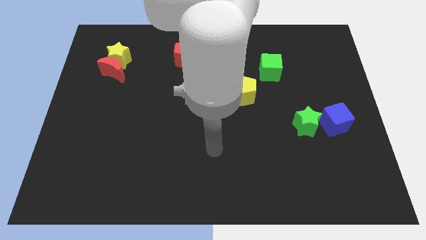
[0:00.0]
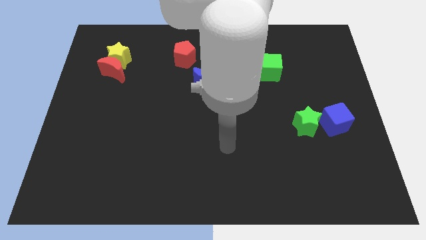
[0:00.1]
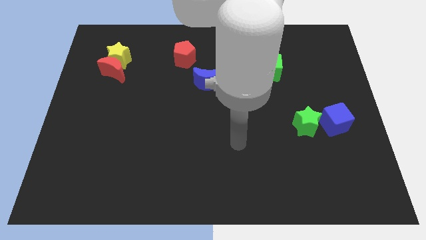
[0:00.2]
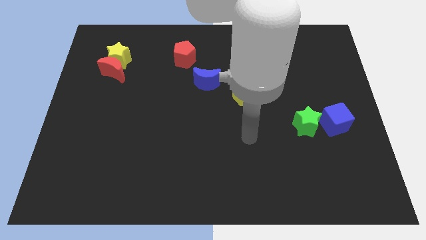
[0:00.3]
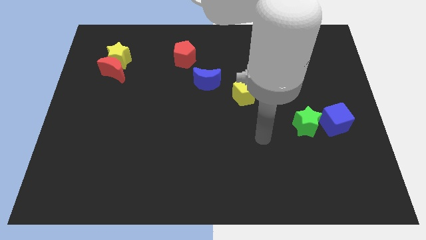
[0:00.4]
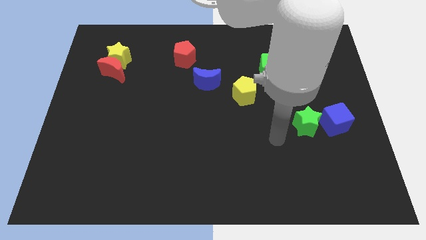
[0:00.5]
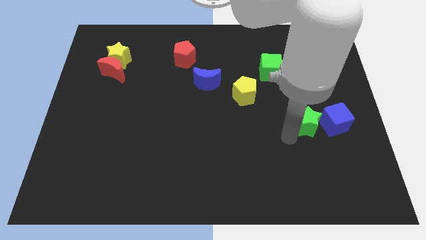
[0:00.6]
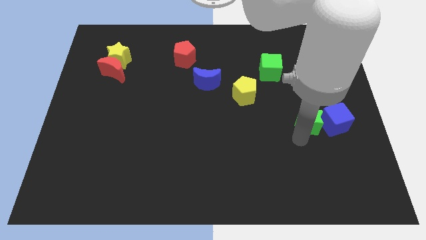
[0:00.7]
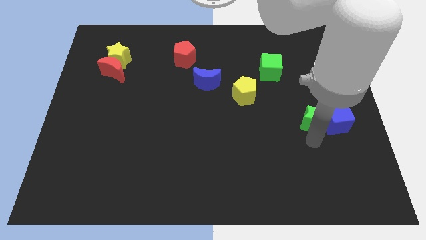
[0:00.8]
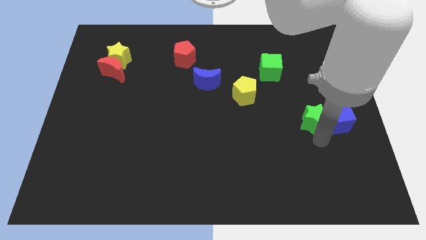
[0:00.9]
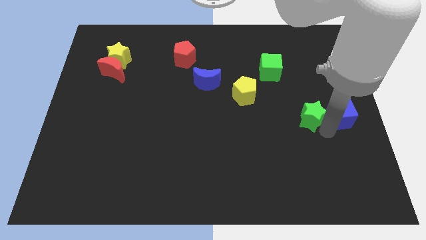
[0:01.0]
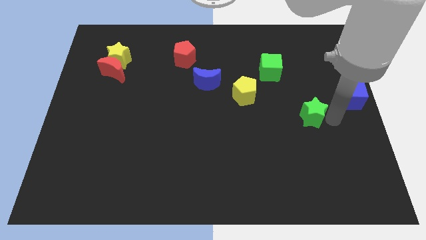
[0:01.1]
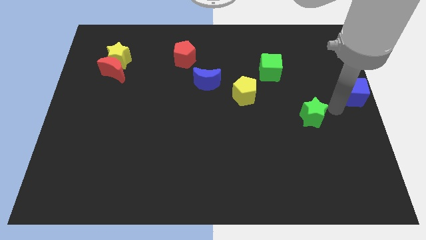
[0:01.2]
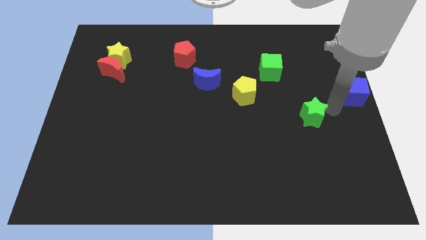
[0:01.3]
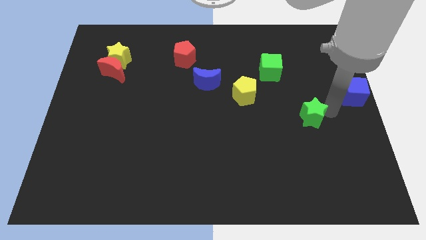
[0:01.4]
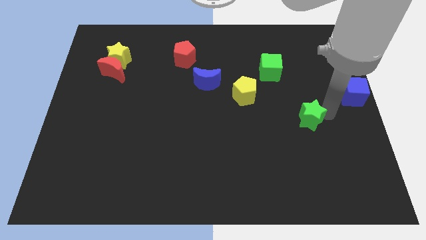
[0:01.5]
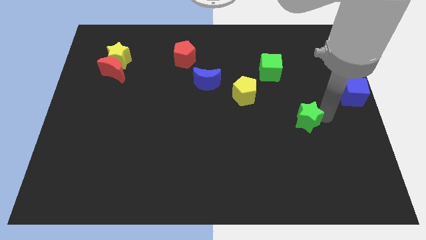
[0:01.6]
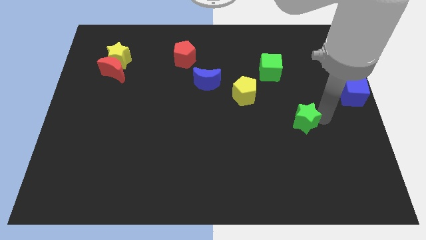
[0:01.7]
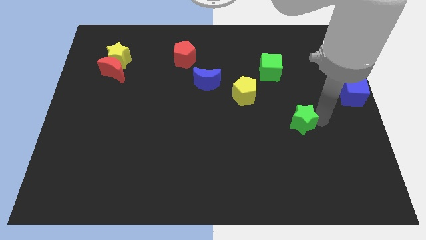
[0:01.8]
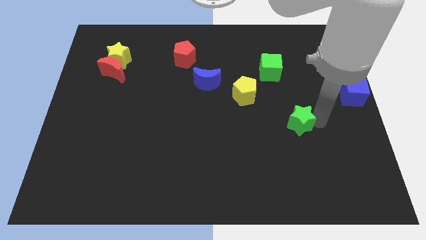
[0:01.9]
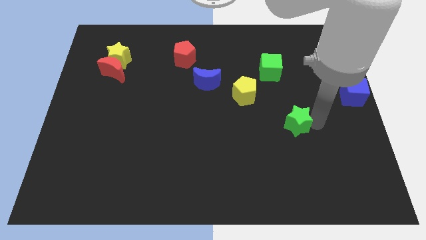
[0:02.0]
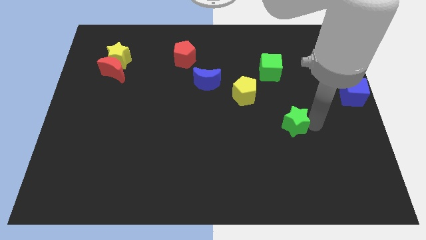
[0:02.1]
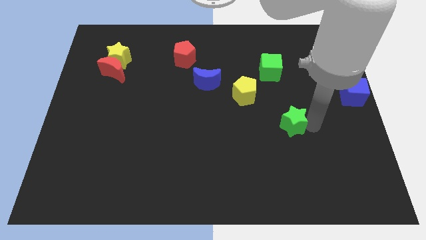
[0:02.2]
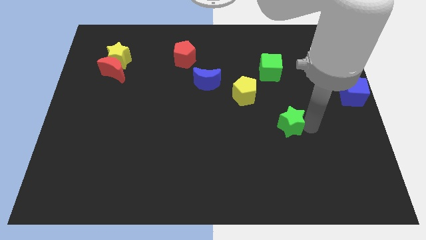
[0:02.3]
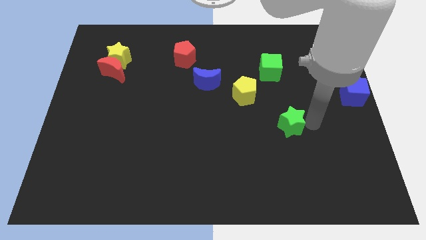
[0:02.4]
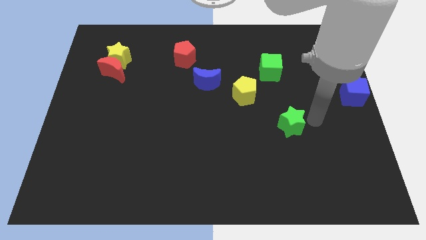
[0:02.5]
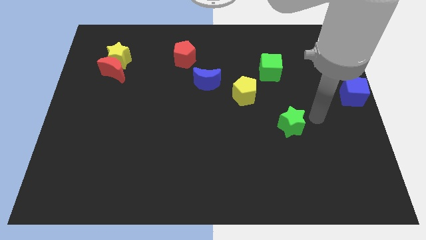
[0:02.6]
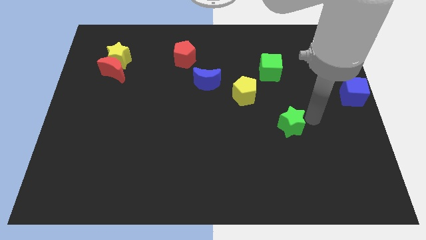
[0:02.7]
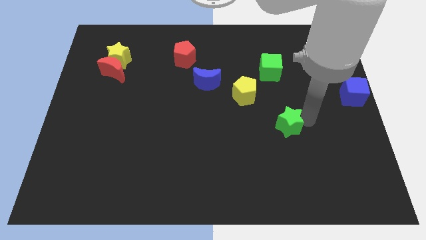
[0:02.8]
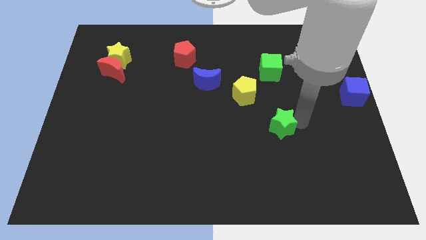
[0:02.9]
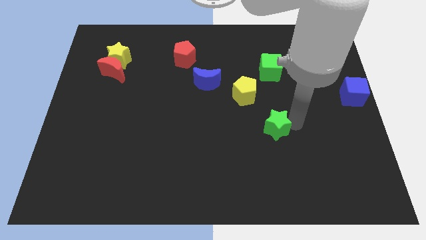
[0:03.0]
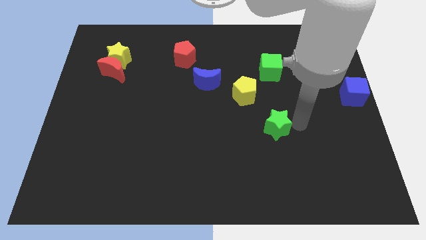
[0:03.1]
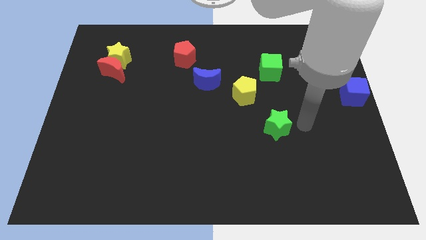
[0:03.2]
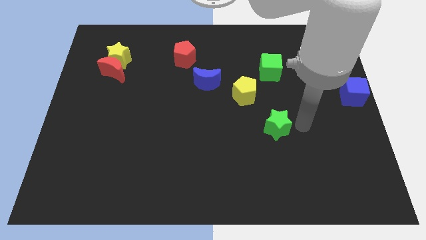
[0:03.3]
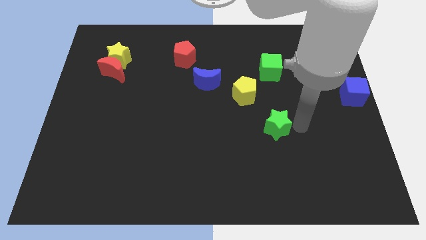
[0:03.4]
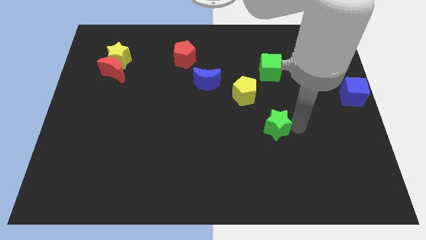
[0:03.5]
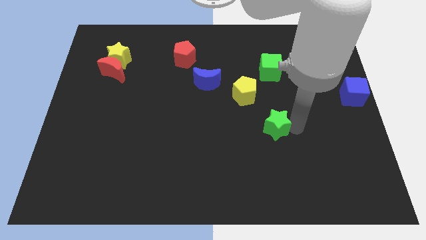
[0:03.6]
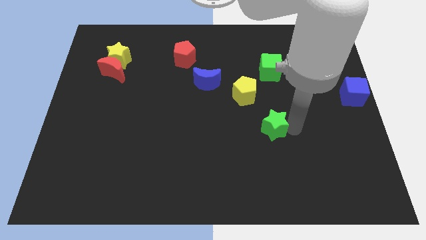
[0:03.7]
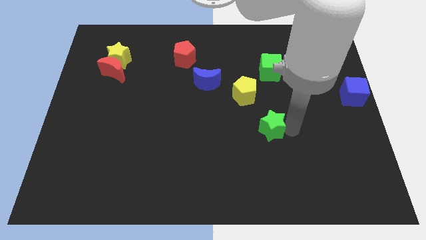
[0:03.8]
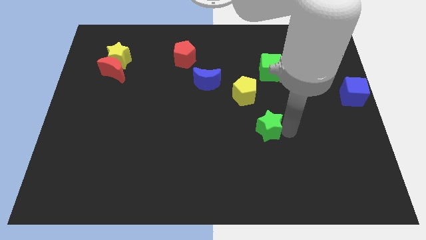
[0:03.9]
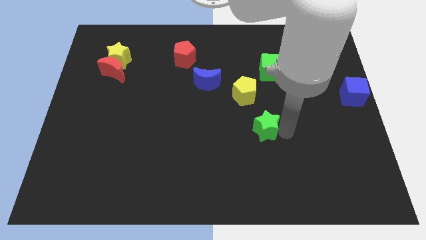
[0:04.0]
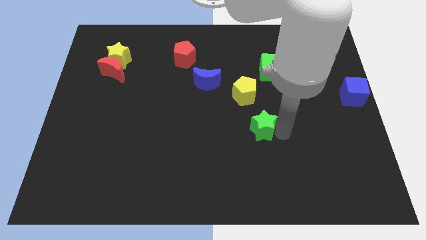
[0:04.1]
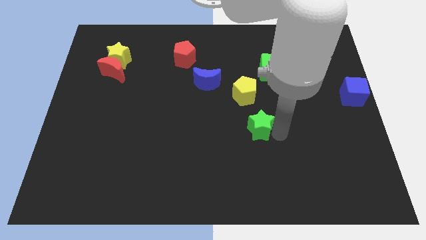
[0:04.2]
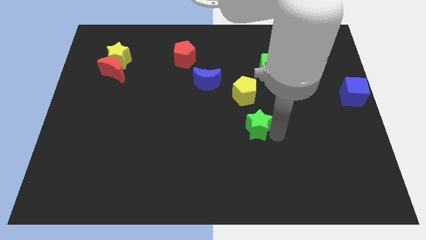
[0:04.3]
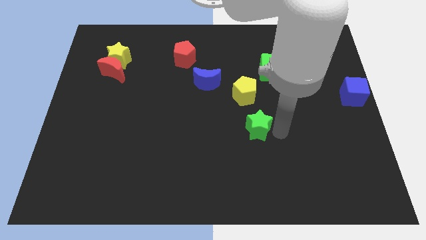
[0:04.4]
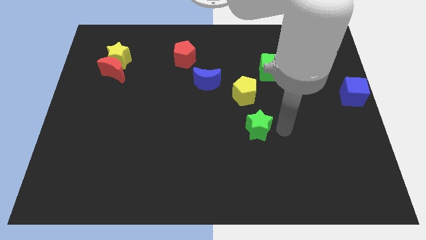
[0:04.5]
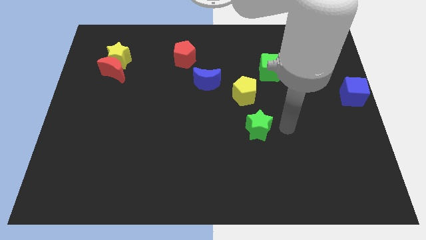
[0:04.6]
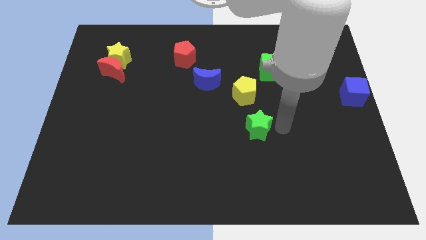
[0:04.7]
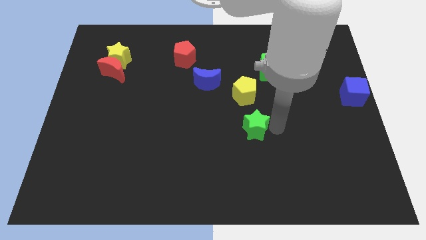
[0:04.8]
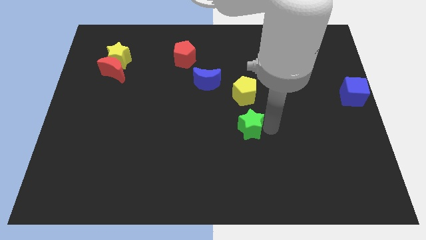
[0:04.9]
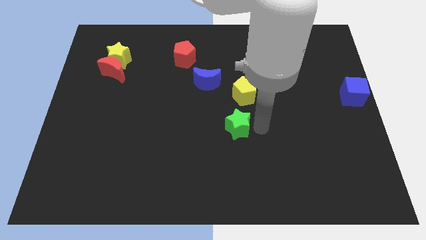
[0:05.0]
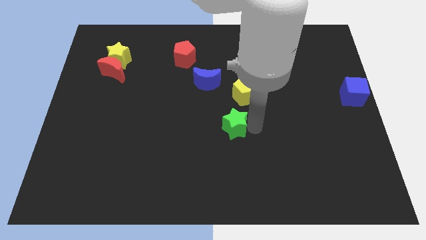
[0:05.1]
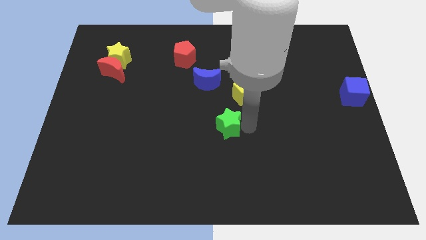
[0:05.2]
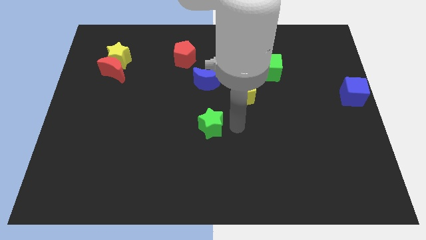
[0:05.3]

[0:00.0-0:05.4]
move the green star left

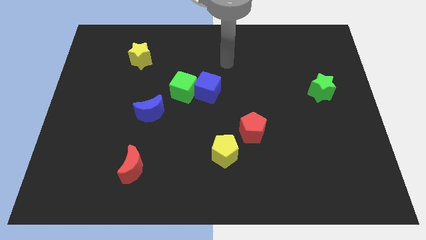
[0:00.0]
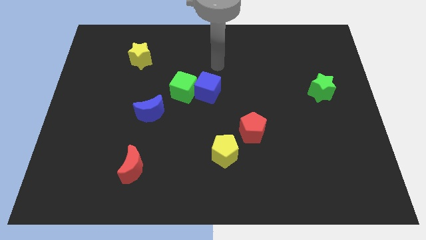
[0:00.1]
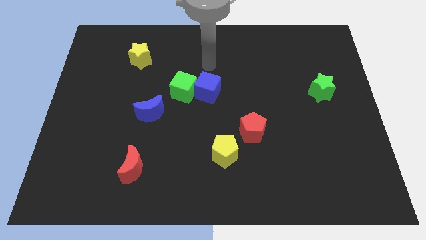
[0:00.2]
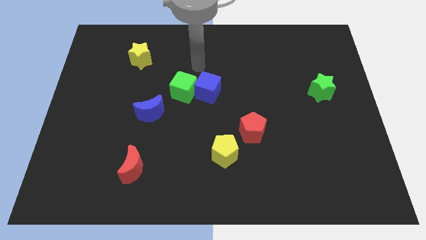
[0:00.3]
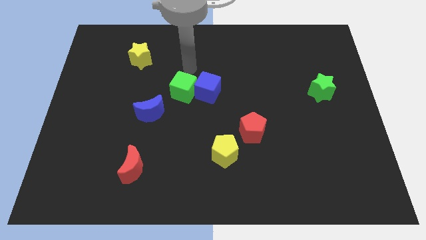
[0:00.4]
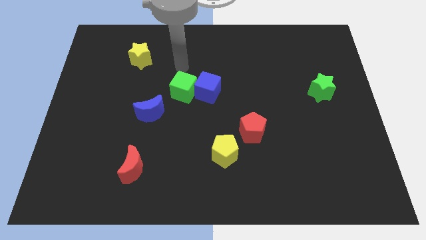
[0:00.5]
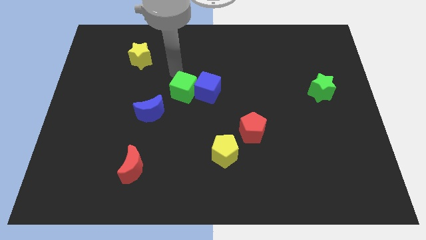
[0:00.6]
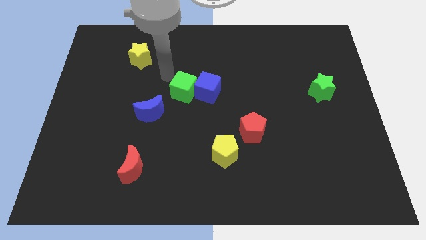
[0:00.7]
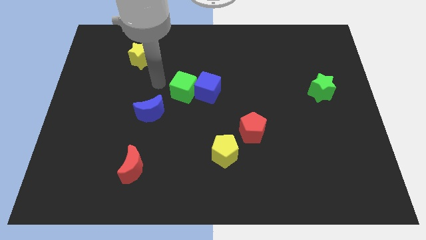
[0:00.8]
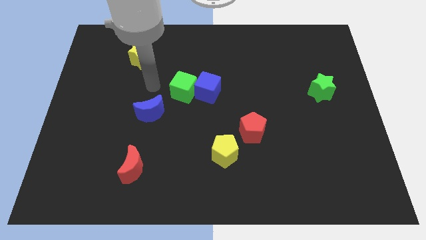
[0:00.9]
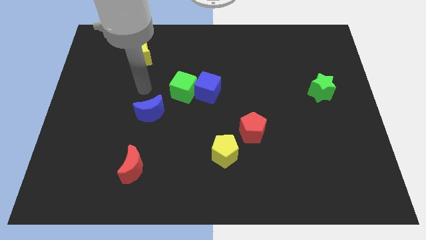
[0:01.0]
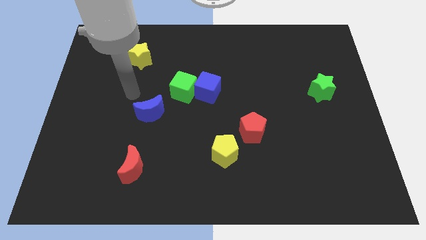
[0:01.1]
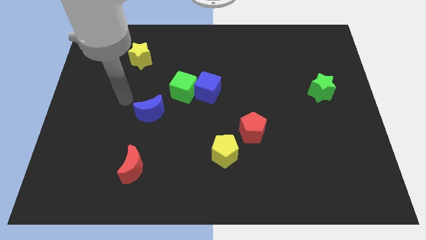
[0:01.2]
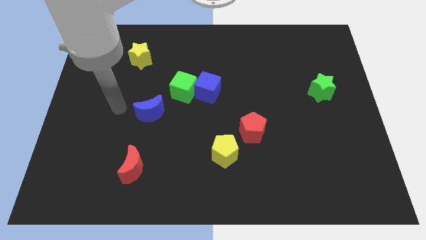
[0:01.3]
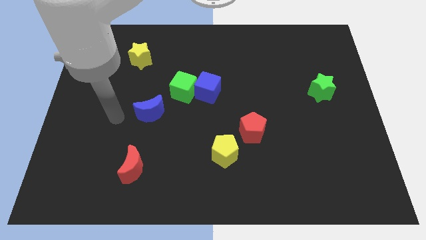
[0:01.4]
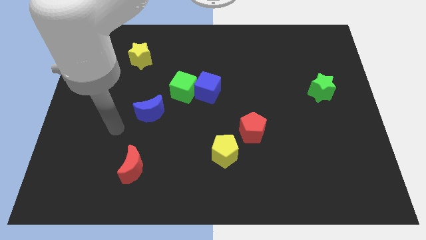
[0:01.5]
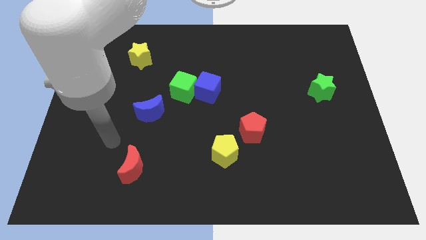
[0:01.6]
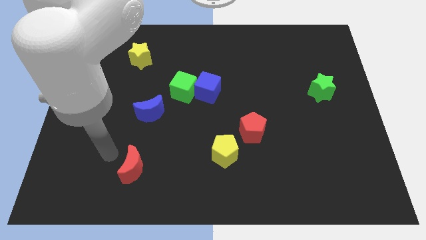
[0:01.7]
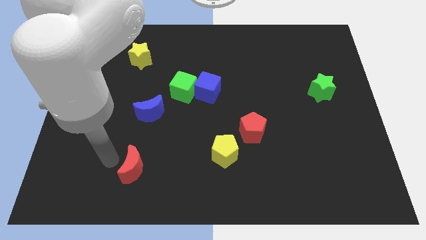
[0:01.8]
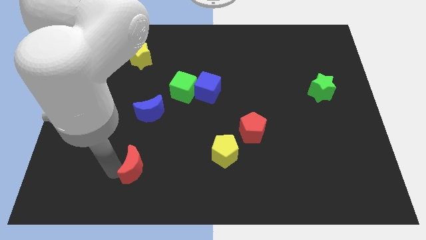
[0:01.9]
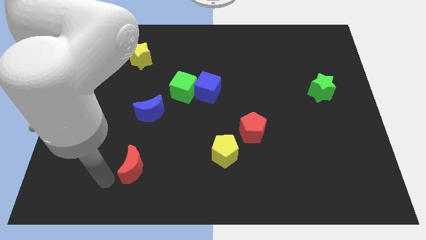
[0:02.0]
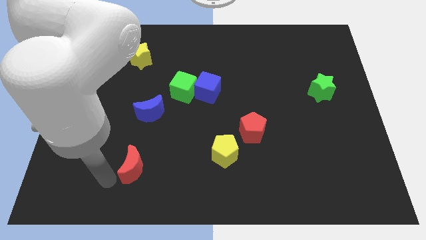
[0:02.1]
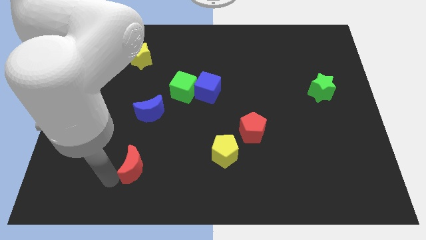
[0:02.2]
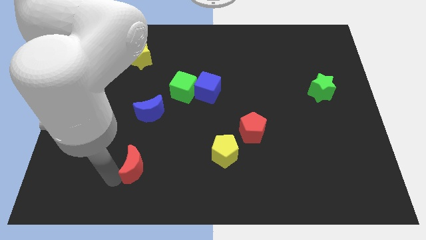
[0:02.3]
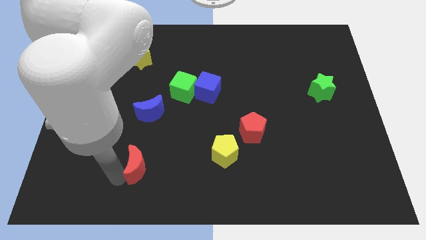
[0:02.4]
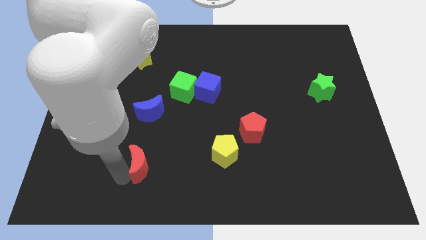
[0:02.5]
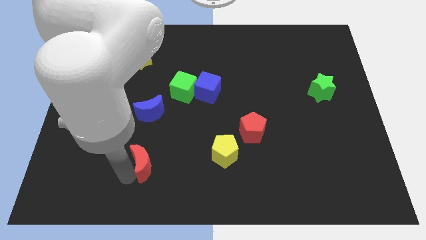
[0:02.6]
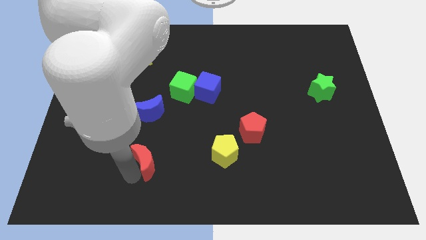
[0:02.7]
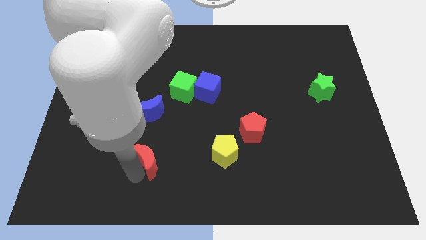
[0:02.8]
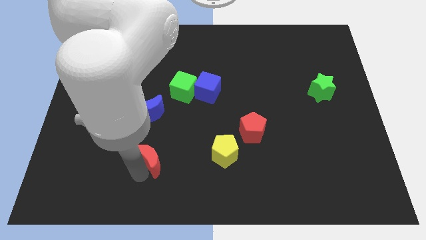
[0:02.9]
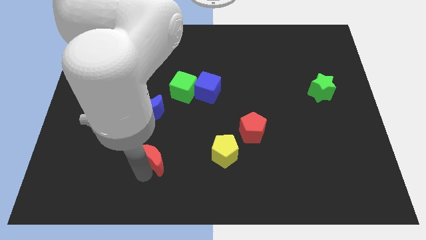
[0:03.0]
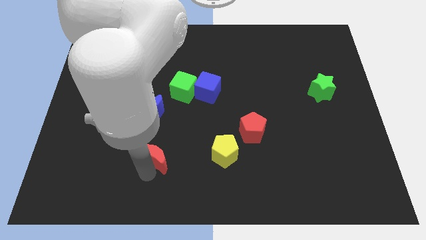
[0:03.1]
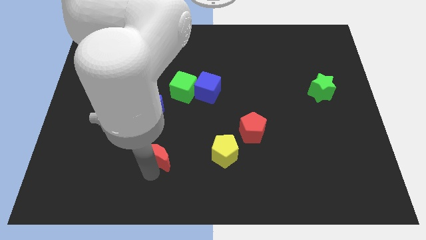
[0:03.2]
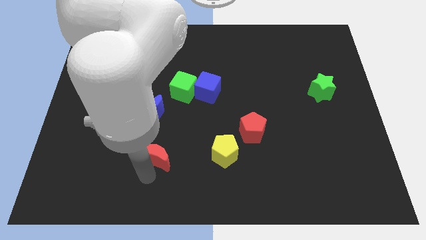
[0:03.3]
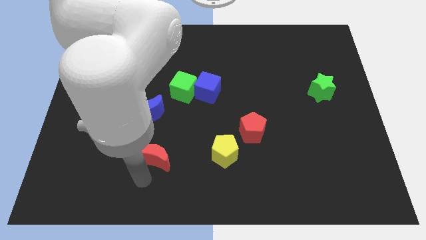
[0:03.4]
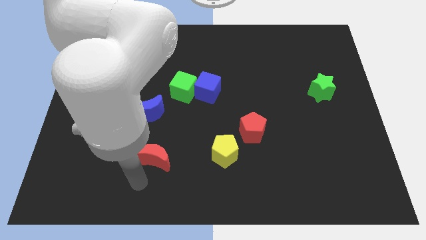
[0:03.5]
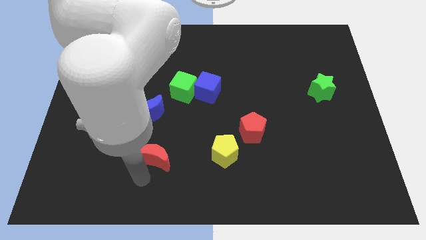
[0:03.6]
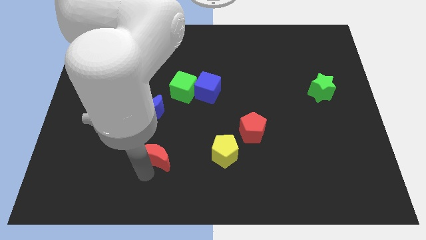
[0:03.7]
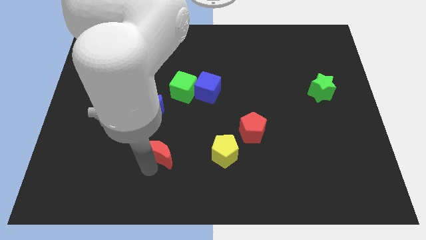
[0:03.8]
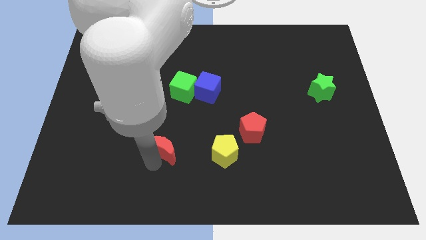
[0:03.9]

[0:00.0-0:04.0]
push the red moon upwards and right diagonally slightly
